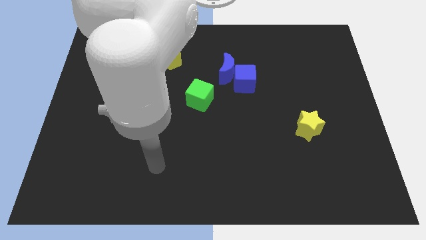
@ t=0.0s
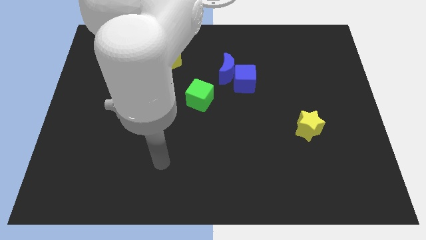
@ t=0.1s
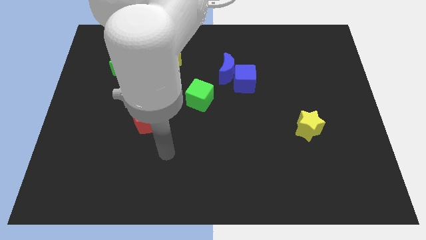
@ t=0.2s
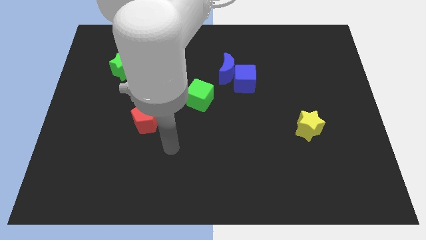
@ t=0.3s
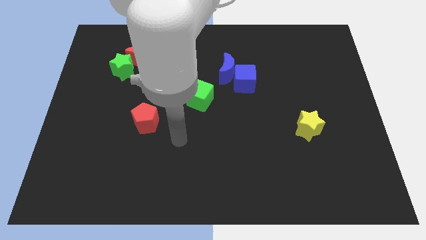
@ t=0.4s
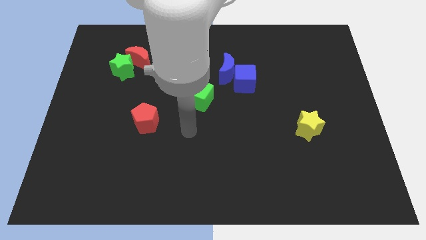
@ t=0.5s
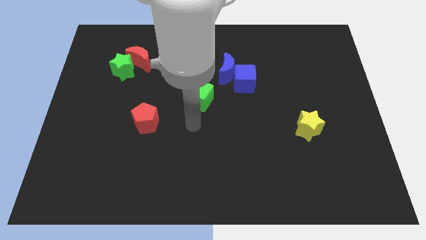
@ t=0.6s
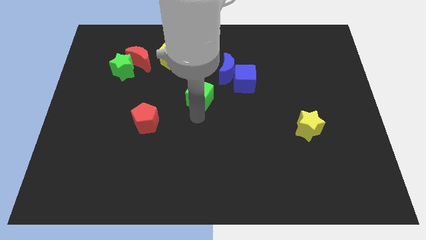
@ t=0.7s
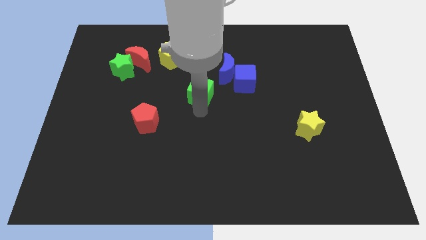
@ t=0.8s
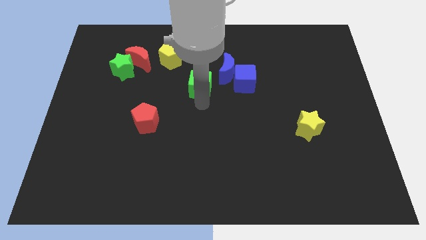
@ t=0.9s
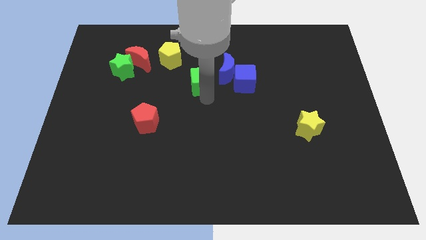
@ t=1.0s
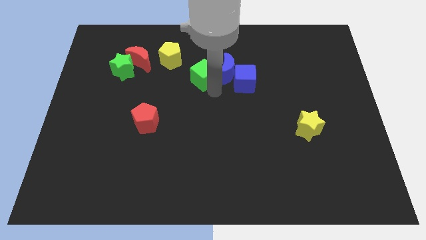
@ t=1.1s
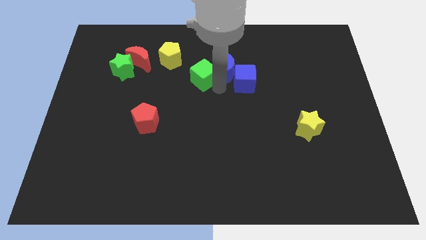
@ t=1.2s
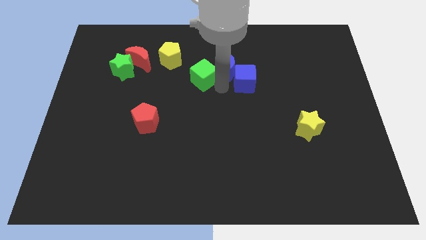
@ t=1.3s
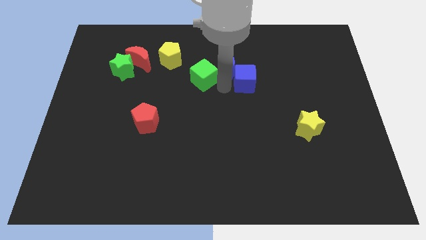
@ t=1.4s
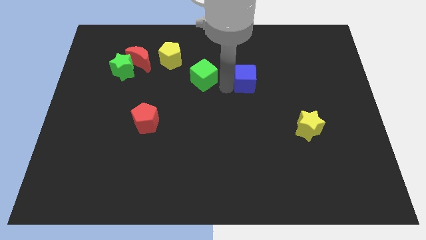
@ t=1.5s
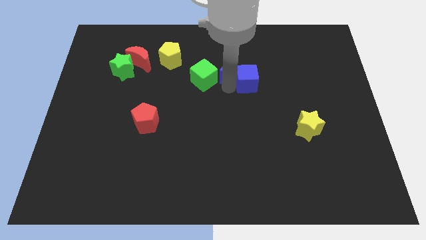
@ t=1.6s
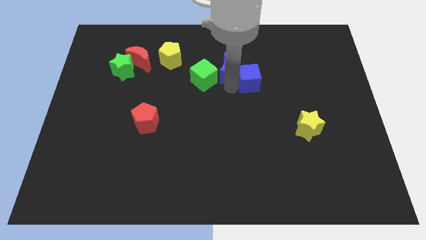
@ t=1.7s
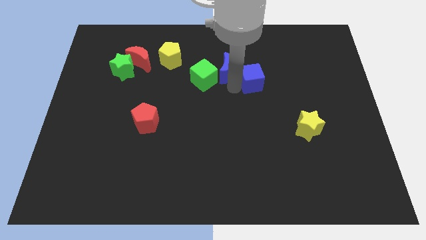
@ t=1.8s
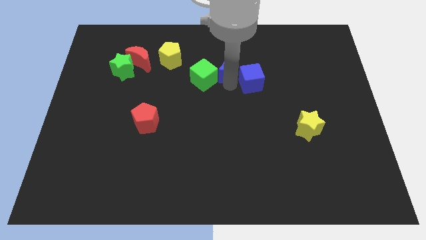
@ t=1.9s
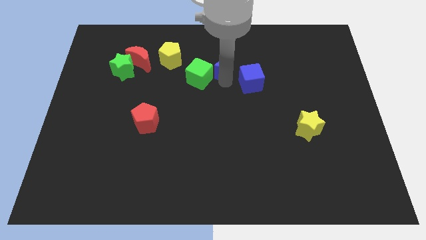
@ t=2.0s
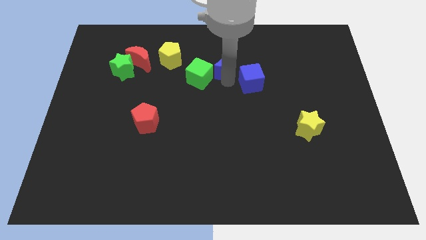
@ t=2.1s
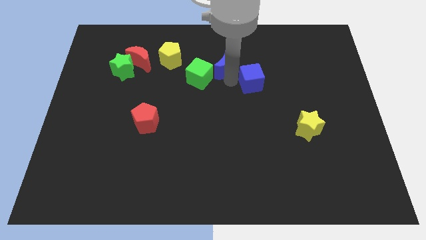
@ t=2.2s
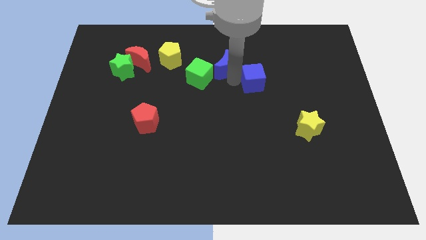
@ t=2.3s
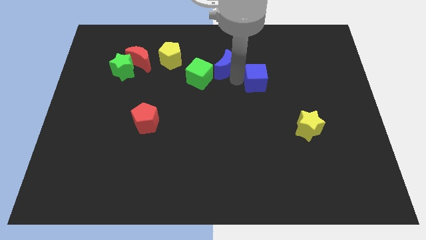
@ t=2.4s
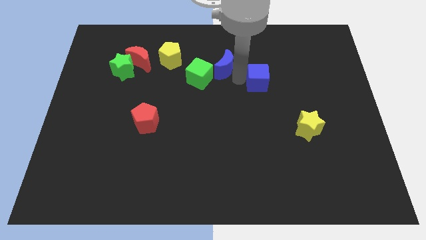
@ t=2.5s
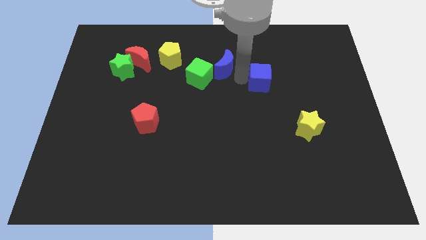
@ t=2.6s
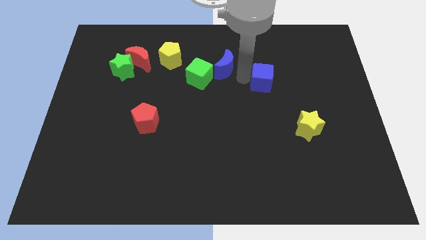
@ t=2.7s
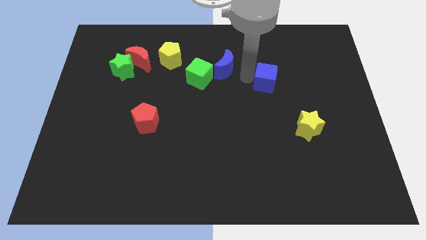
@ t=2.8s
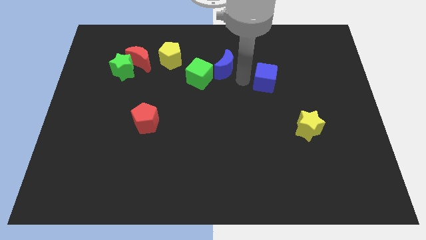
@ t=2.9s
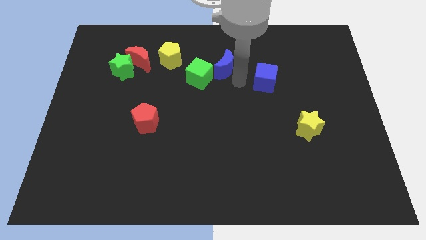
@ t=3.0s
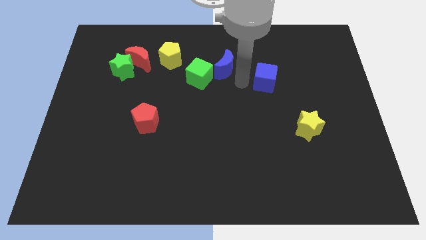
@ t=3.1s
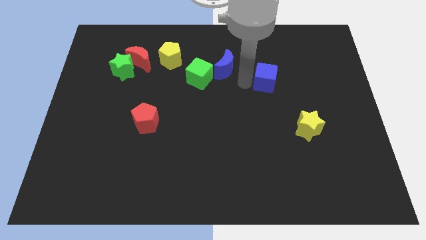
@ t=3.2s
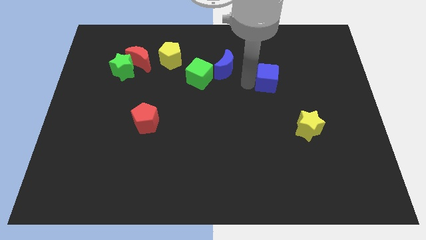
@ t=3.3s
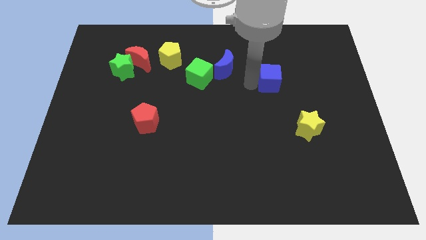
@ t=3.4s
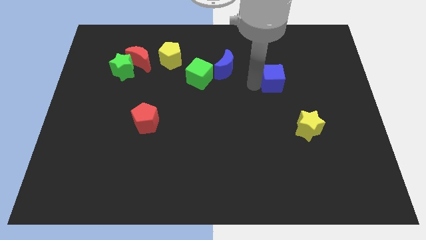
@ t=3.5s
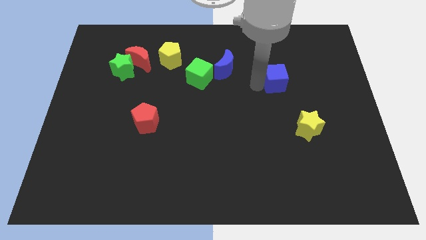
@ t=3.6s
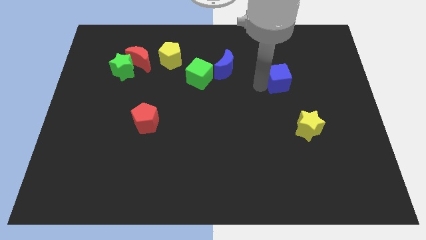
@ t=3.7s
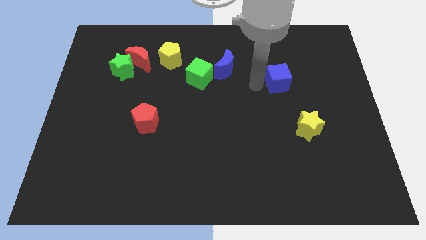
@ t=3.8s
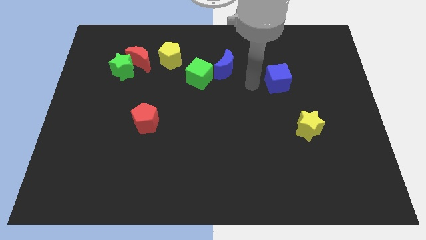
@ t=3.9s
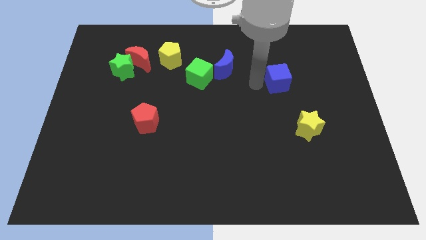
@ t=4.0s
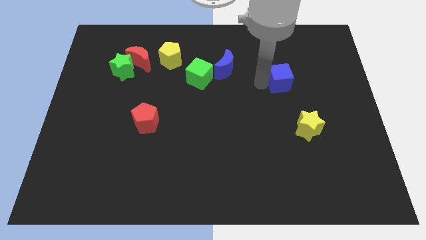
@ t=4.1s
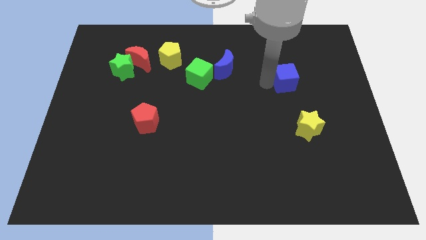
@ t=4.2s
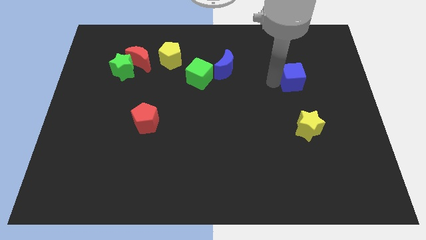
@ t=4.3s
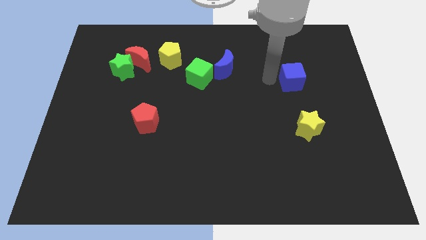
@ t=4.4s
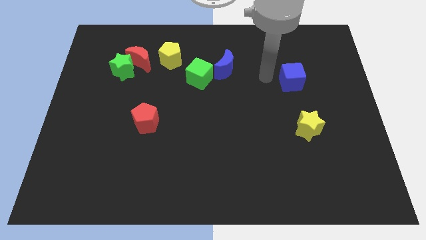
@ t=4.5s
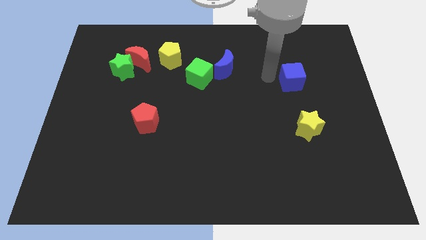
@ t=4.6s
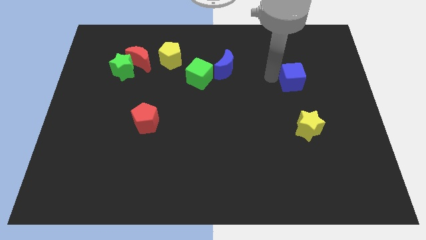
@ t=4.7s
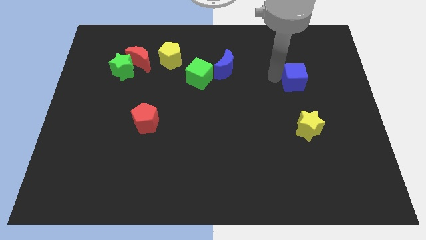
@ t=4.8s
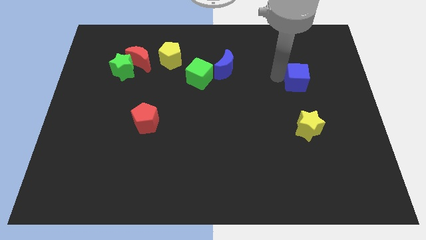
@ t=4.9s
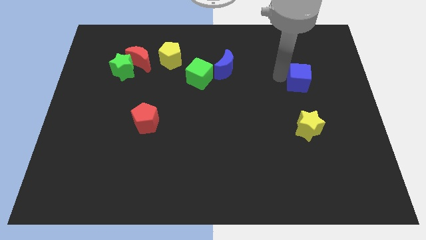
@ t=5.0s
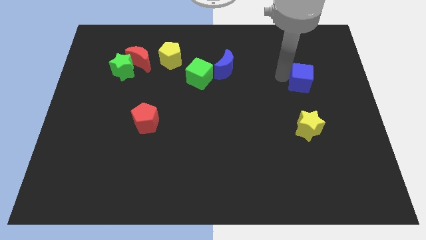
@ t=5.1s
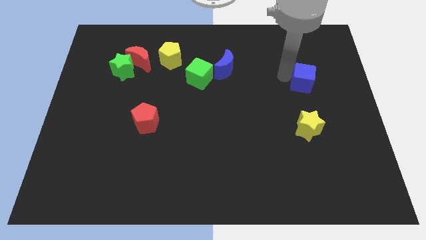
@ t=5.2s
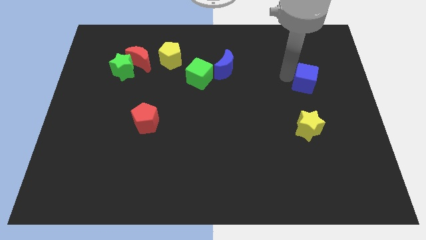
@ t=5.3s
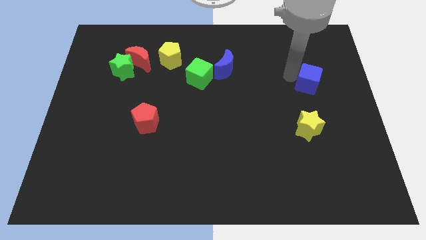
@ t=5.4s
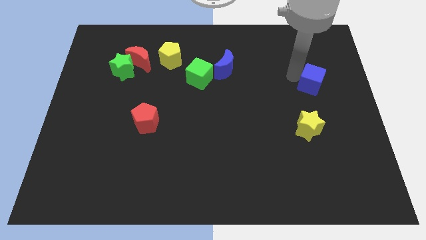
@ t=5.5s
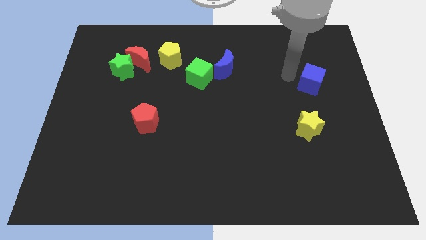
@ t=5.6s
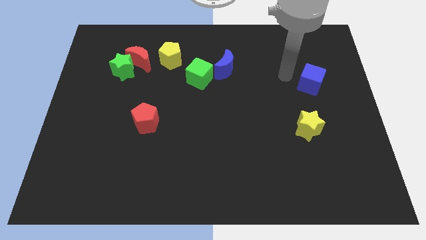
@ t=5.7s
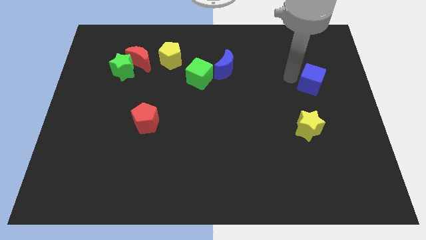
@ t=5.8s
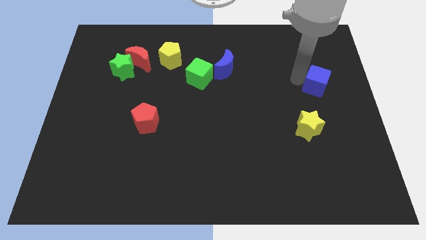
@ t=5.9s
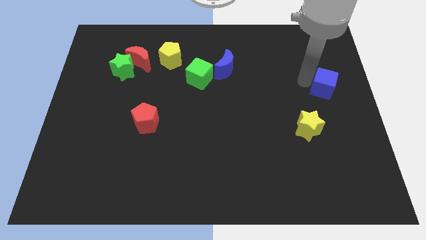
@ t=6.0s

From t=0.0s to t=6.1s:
push the blue cube to the right side

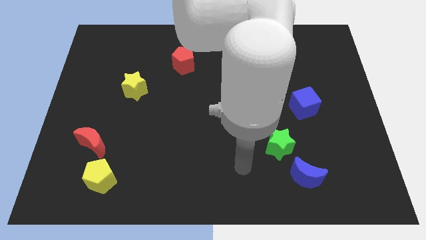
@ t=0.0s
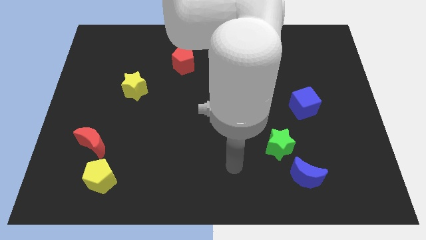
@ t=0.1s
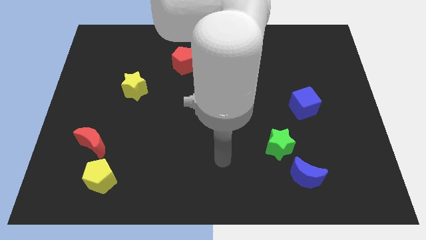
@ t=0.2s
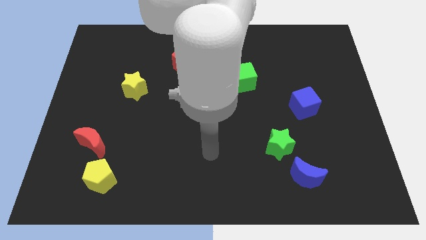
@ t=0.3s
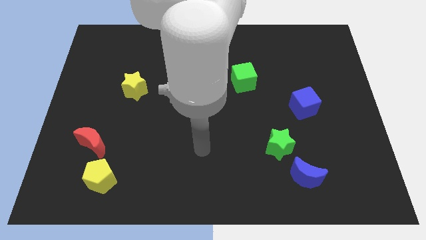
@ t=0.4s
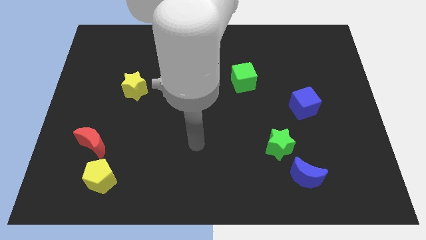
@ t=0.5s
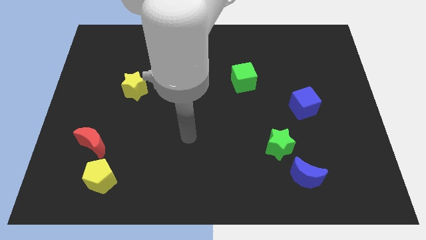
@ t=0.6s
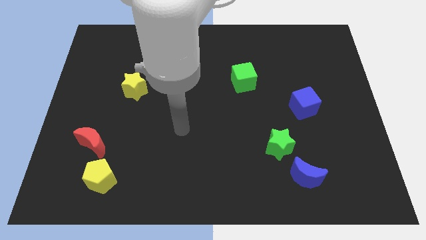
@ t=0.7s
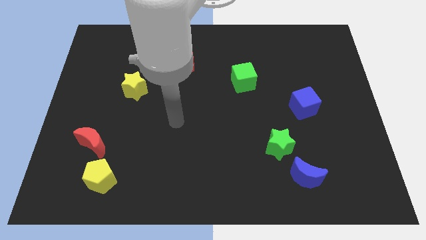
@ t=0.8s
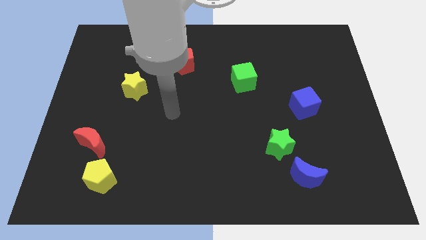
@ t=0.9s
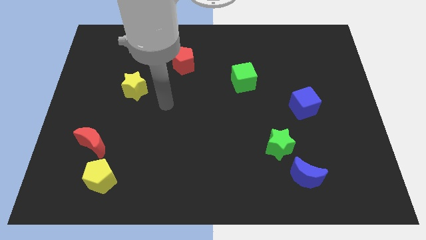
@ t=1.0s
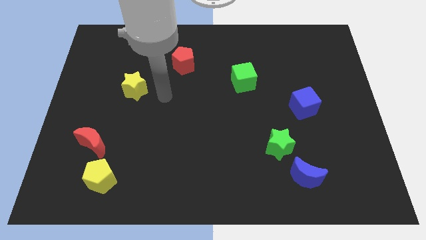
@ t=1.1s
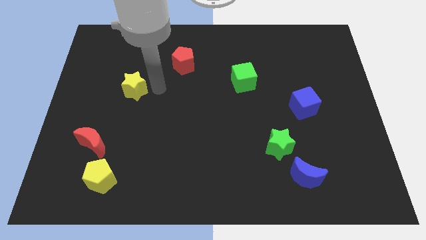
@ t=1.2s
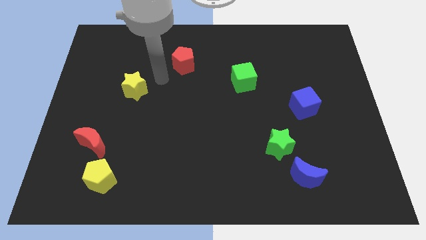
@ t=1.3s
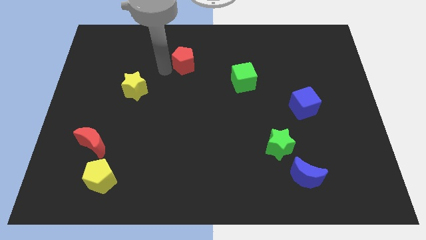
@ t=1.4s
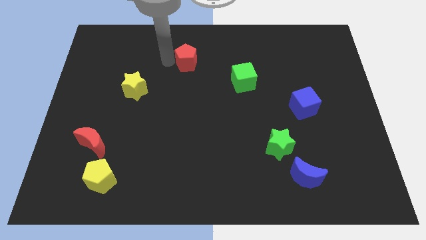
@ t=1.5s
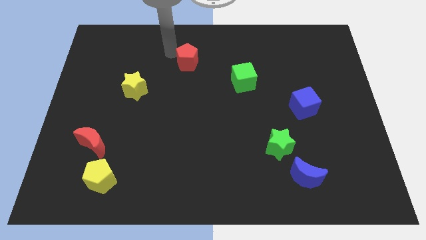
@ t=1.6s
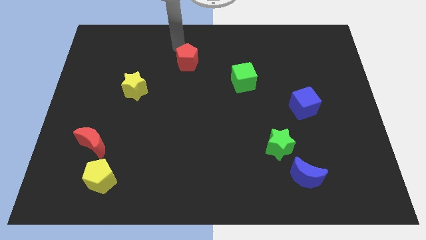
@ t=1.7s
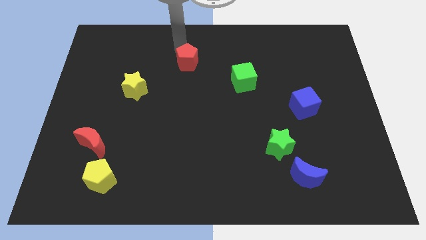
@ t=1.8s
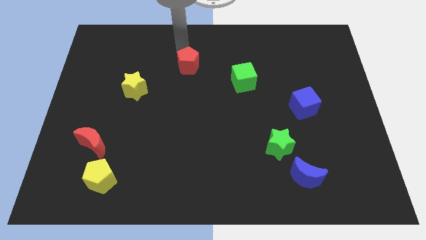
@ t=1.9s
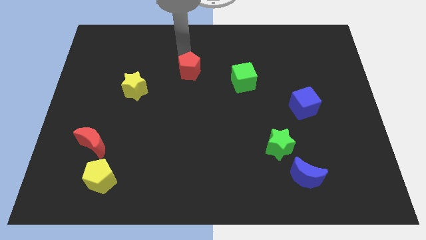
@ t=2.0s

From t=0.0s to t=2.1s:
push the red pentagon to the middle of the board
